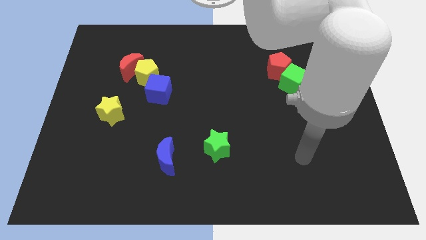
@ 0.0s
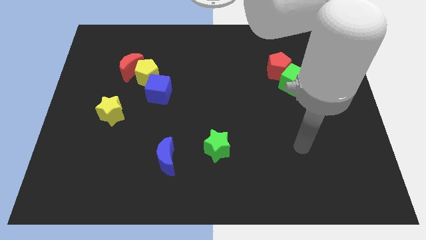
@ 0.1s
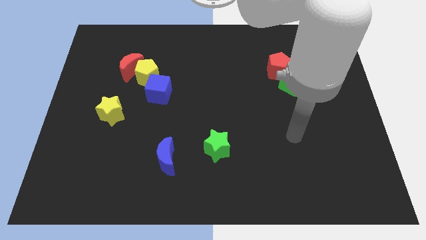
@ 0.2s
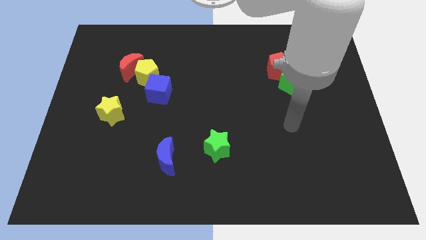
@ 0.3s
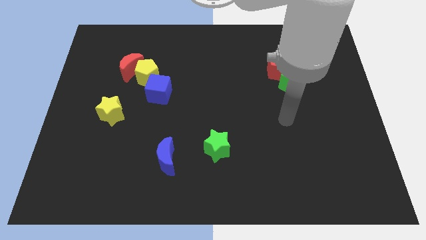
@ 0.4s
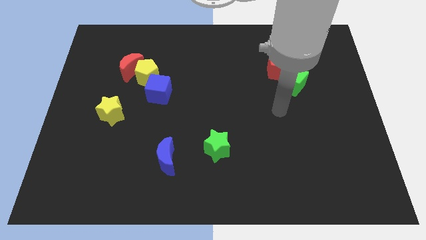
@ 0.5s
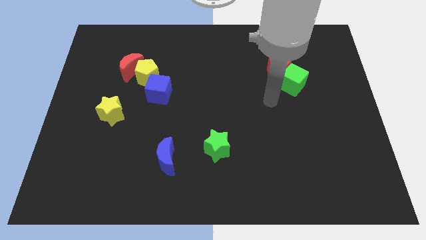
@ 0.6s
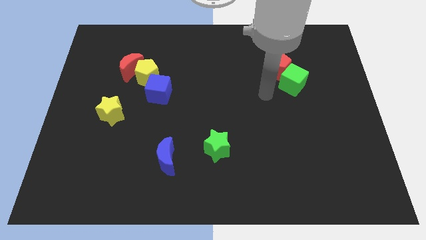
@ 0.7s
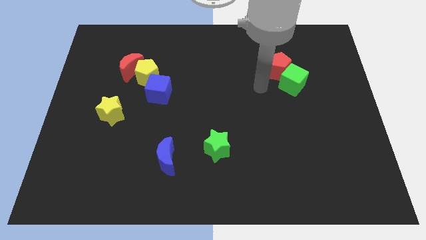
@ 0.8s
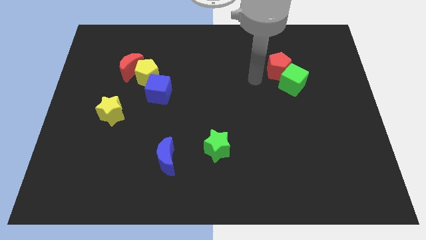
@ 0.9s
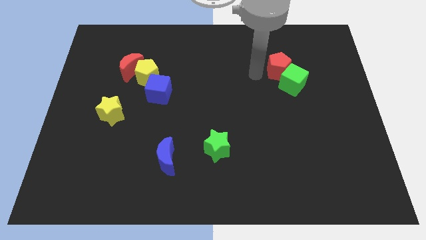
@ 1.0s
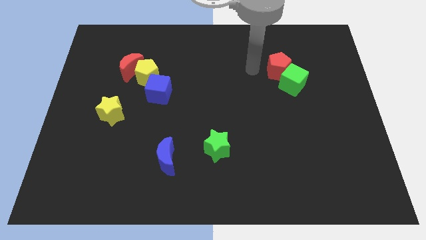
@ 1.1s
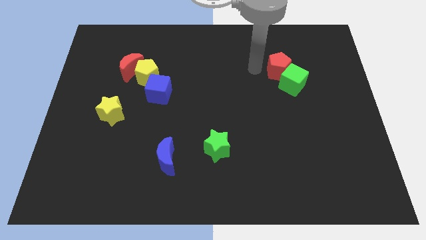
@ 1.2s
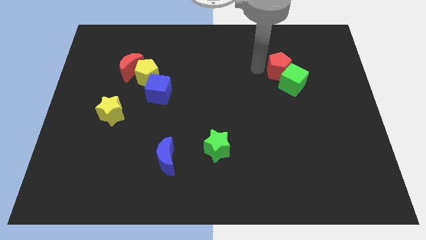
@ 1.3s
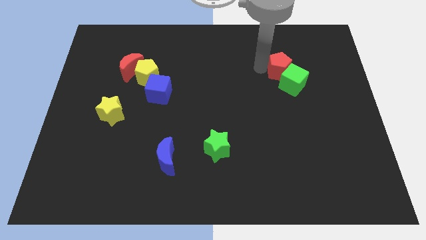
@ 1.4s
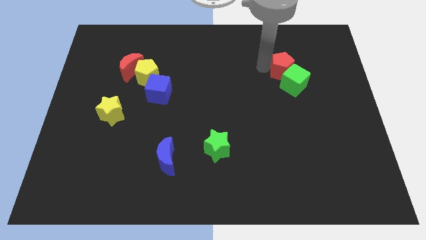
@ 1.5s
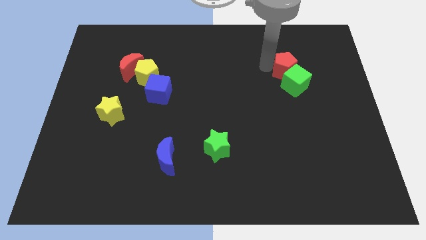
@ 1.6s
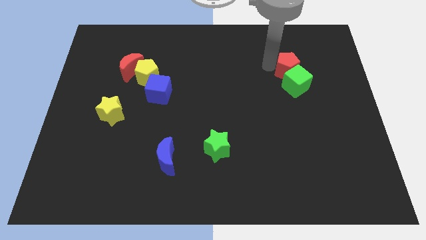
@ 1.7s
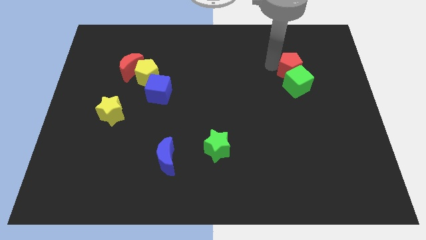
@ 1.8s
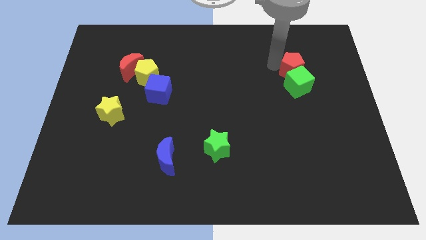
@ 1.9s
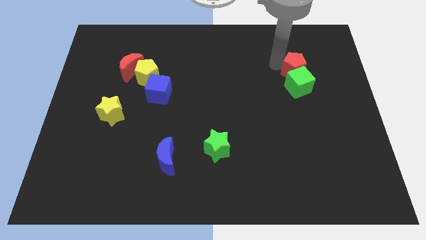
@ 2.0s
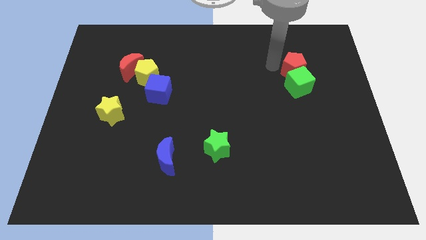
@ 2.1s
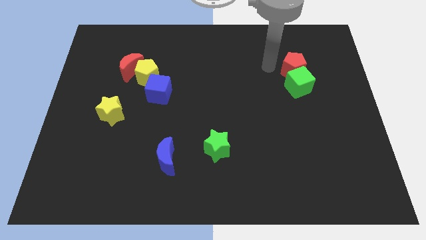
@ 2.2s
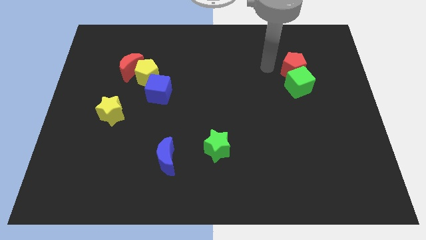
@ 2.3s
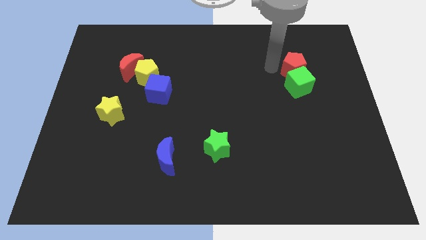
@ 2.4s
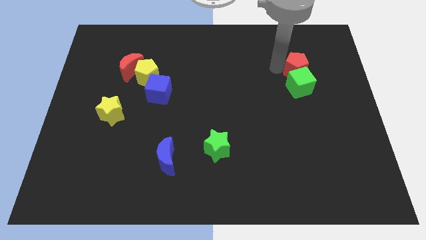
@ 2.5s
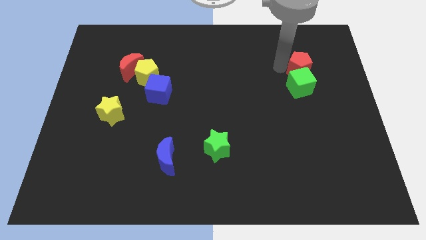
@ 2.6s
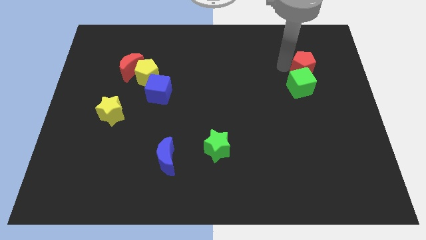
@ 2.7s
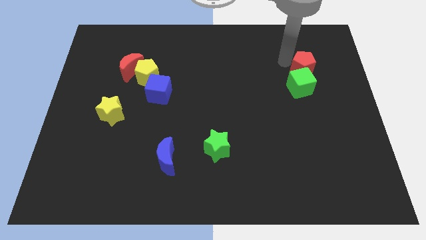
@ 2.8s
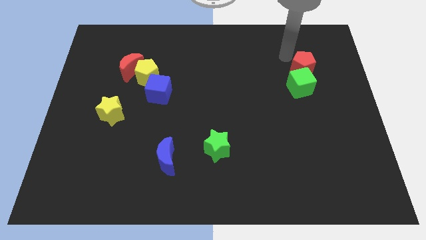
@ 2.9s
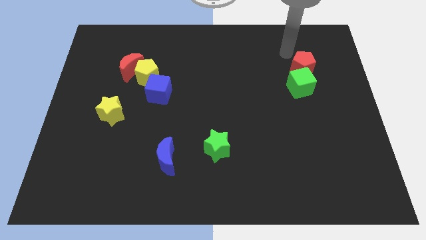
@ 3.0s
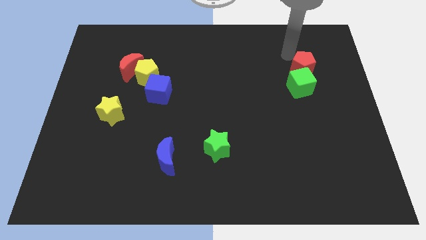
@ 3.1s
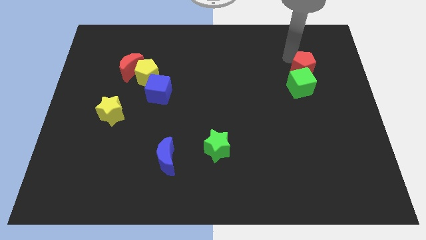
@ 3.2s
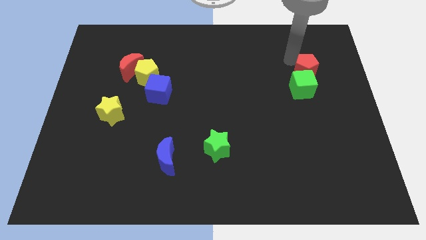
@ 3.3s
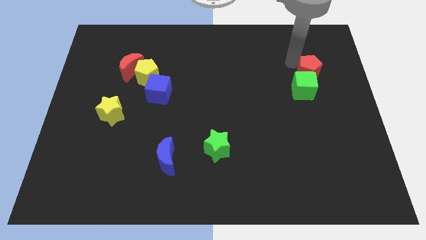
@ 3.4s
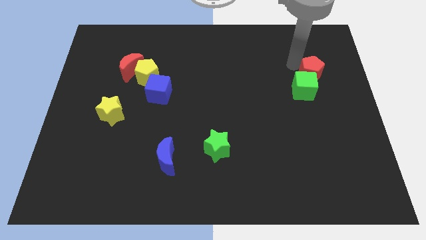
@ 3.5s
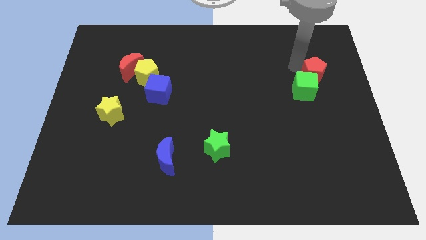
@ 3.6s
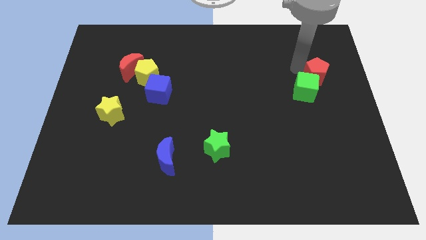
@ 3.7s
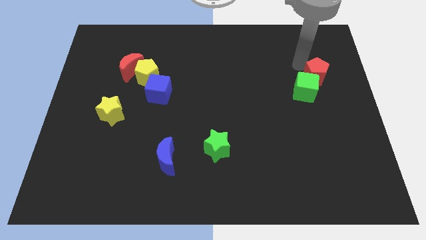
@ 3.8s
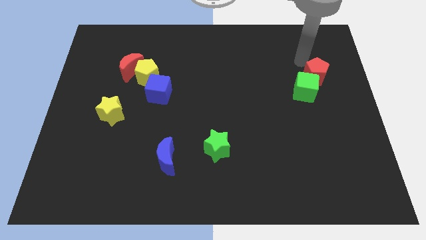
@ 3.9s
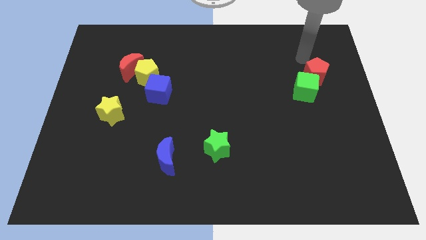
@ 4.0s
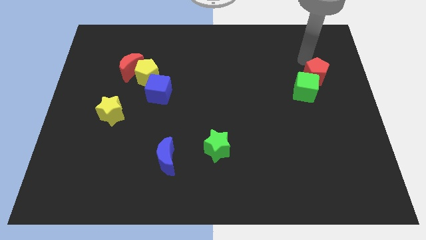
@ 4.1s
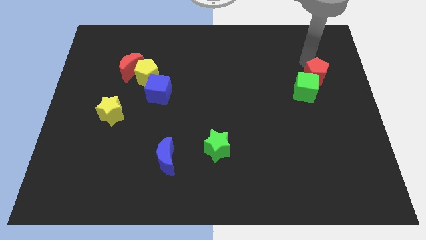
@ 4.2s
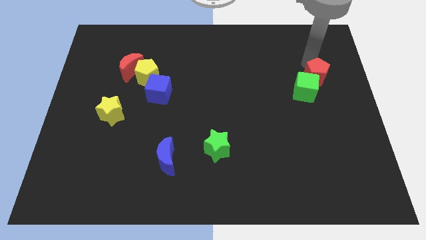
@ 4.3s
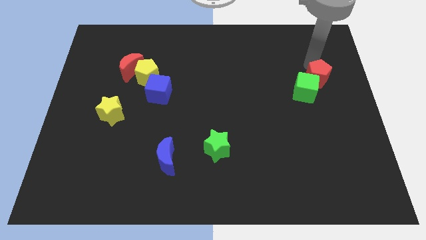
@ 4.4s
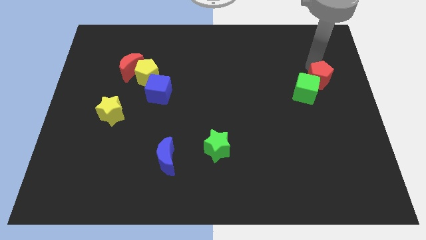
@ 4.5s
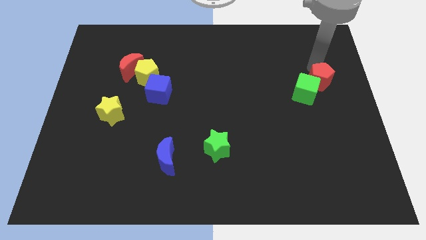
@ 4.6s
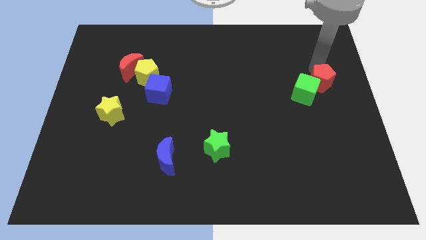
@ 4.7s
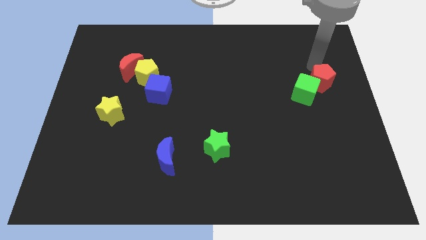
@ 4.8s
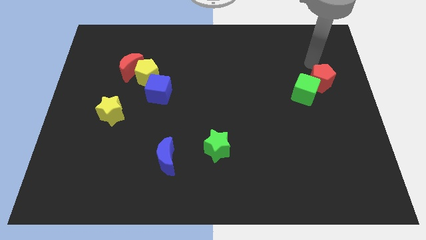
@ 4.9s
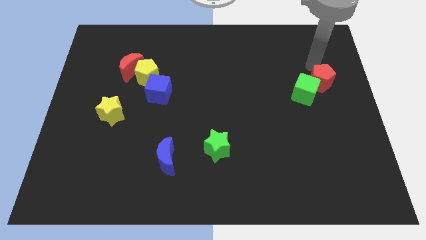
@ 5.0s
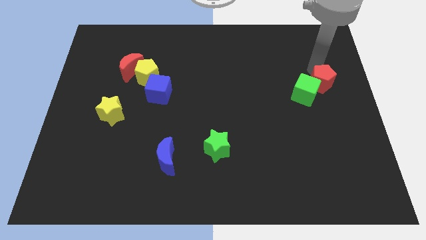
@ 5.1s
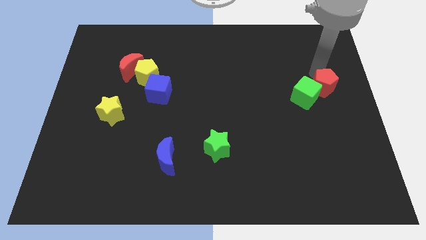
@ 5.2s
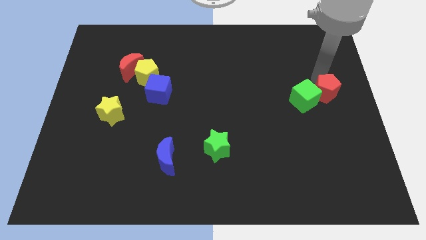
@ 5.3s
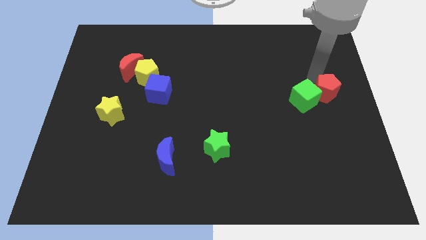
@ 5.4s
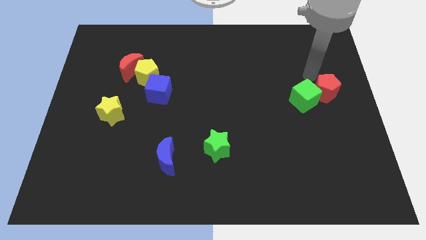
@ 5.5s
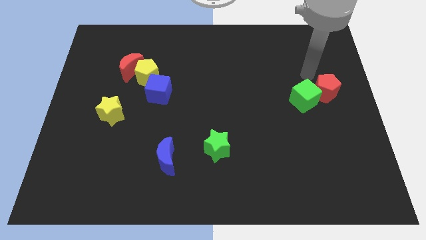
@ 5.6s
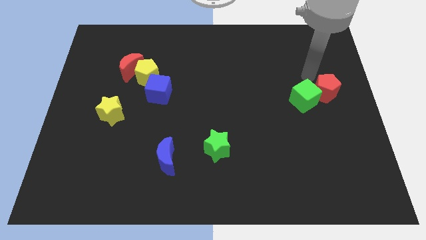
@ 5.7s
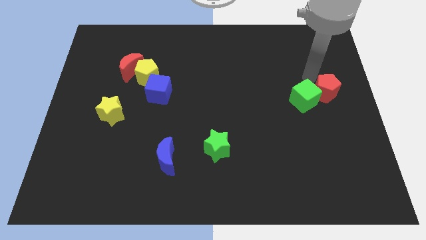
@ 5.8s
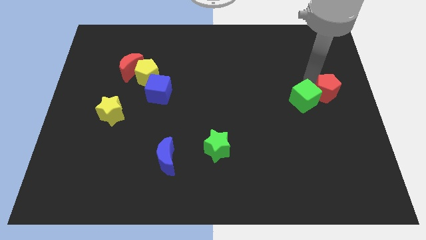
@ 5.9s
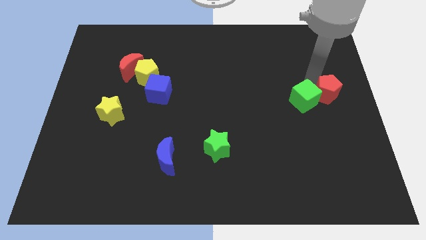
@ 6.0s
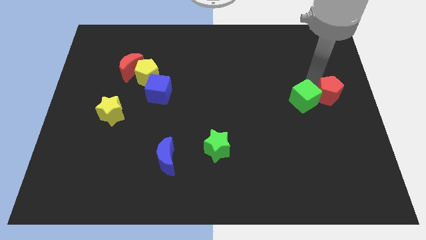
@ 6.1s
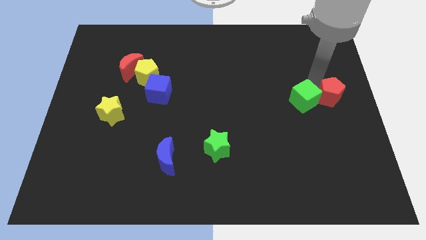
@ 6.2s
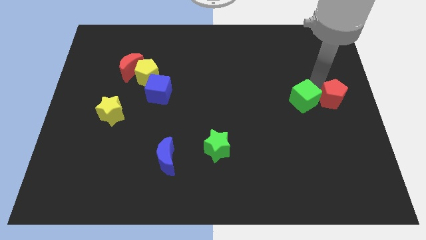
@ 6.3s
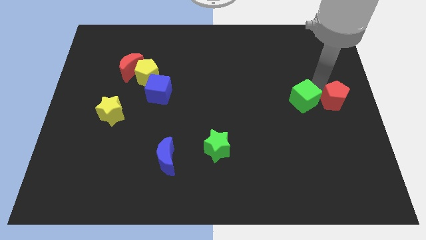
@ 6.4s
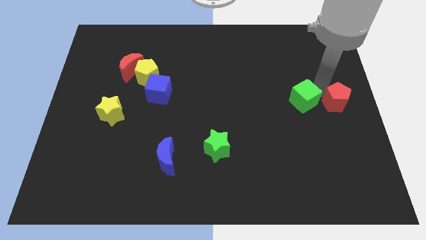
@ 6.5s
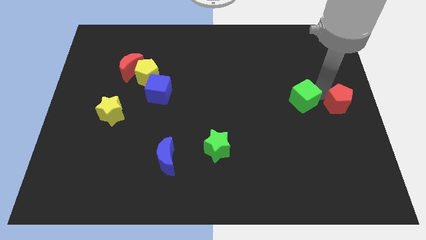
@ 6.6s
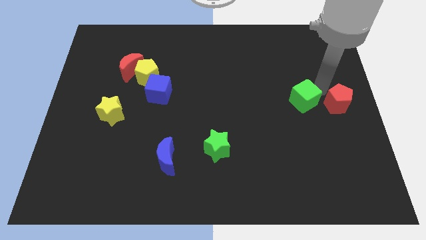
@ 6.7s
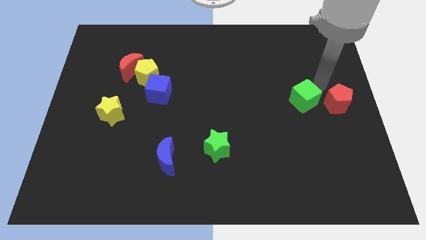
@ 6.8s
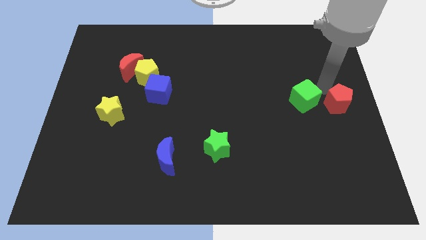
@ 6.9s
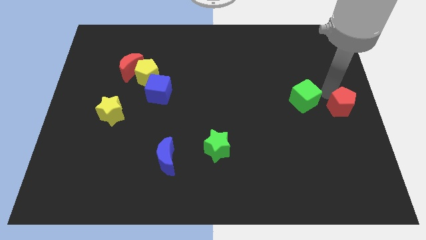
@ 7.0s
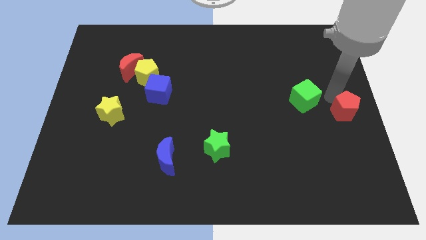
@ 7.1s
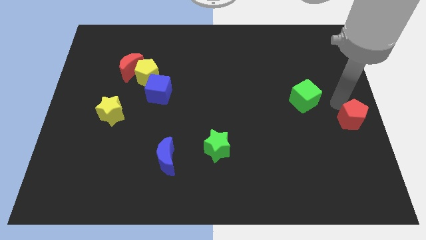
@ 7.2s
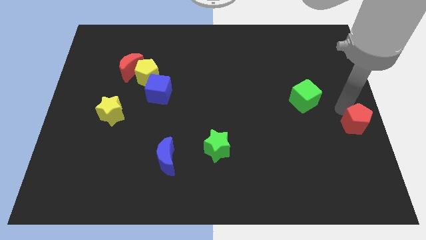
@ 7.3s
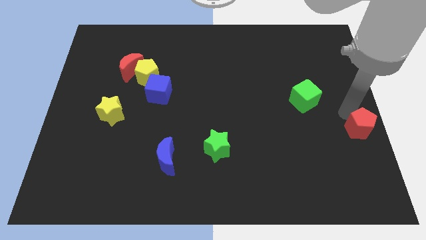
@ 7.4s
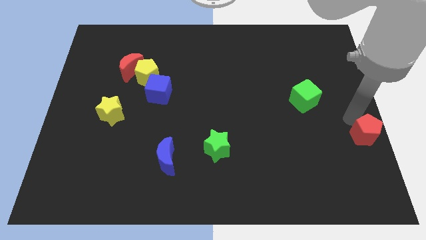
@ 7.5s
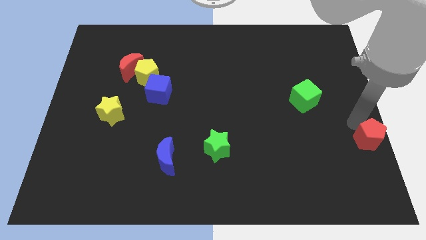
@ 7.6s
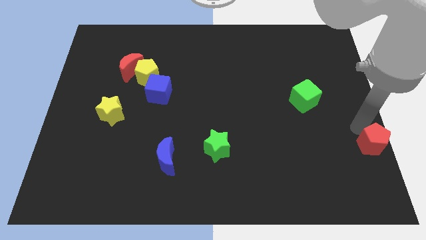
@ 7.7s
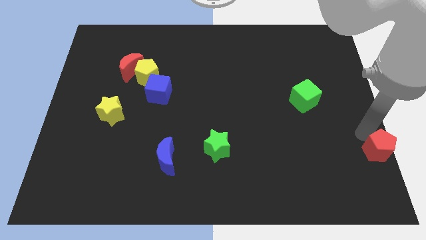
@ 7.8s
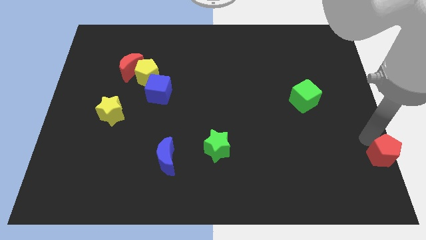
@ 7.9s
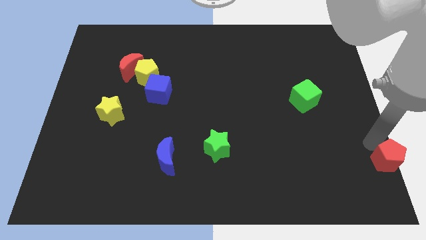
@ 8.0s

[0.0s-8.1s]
push the red pentagon to the bottom right of the board
